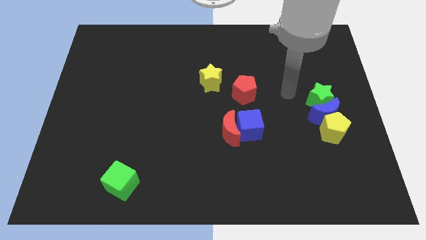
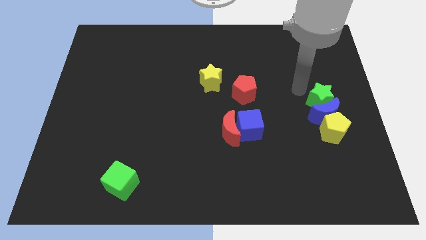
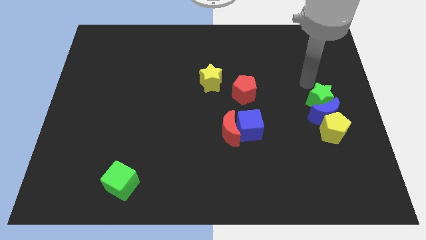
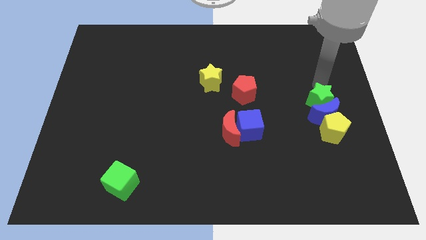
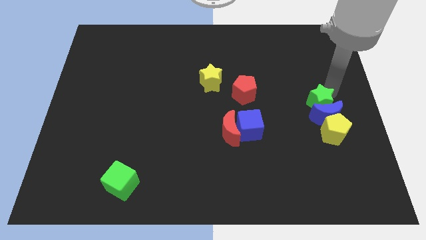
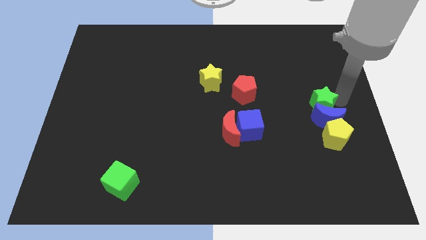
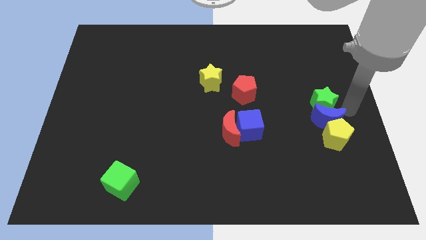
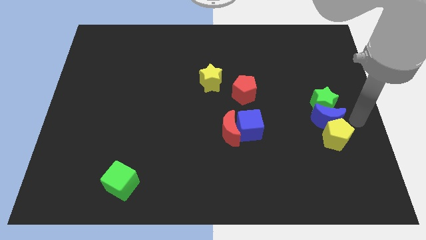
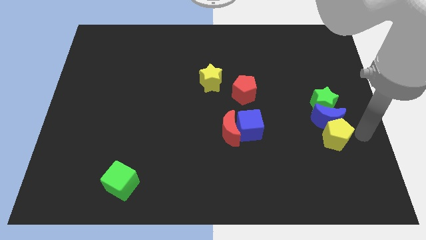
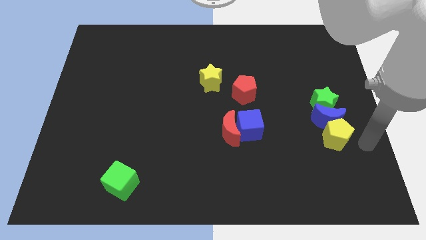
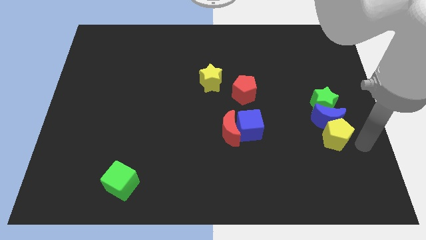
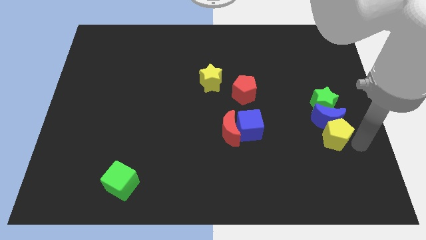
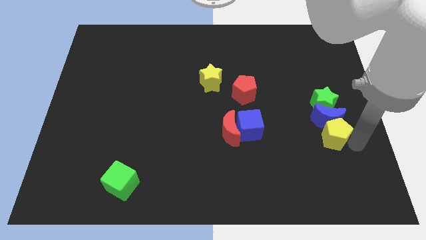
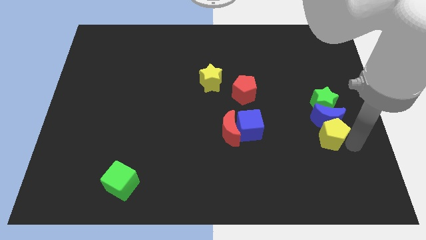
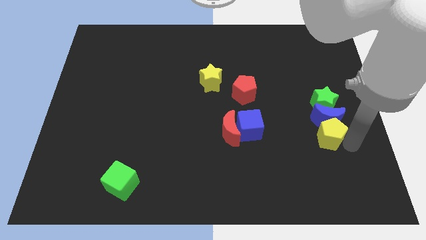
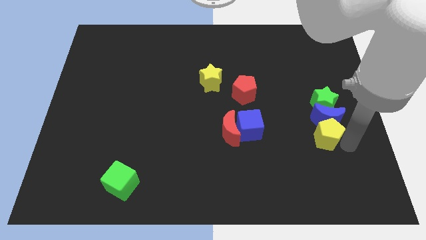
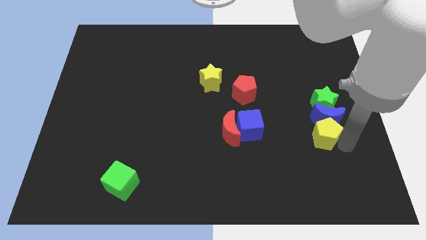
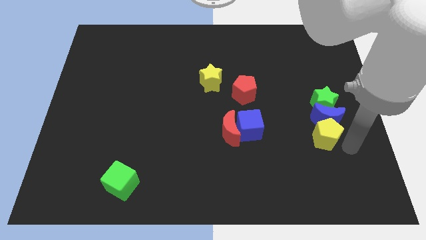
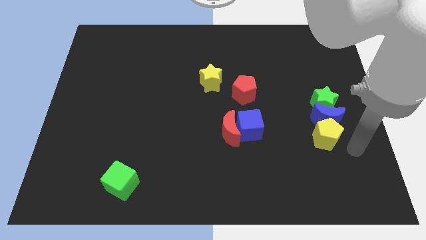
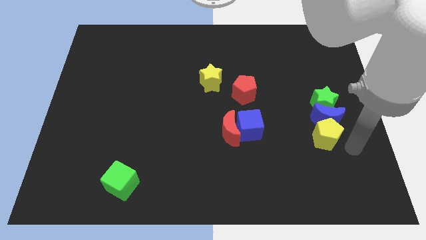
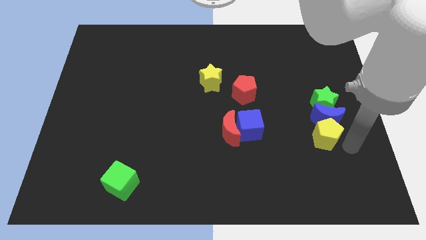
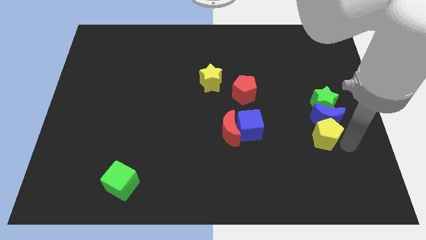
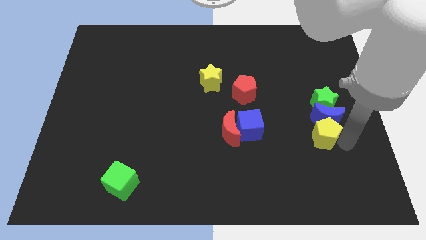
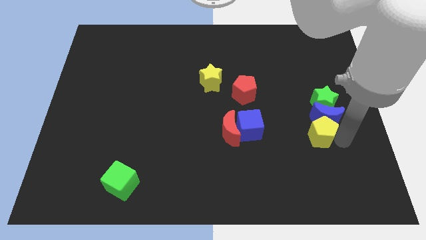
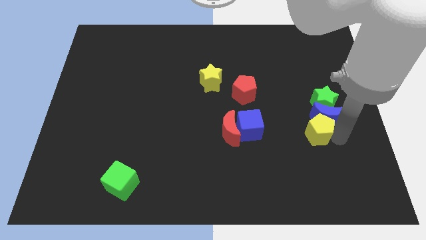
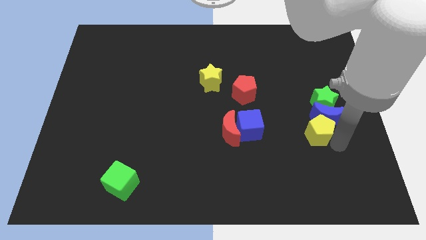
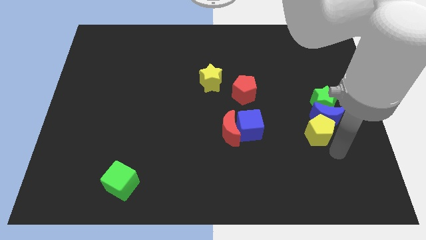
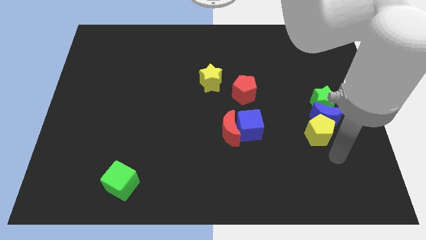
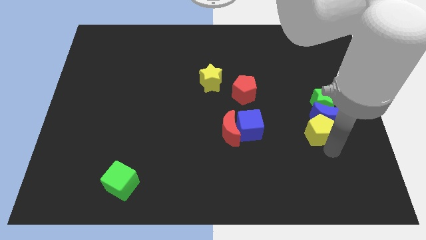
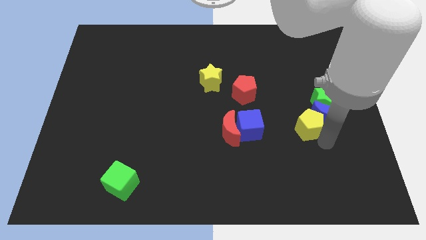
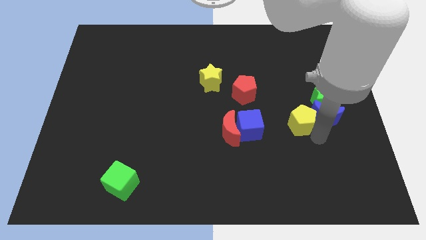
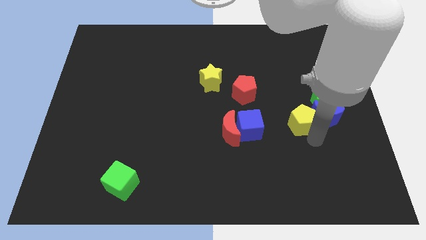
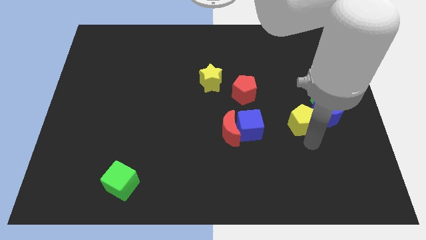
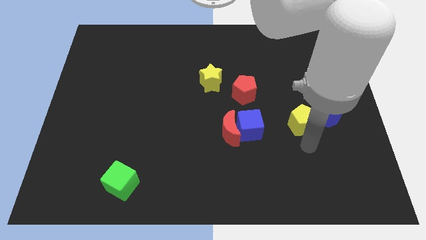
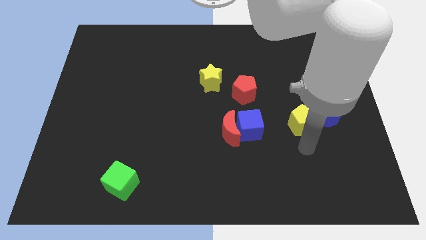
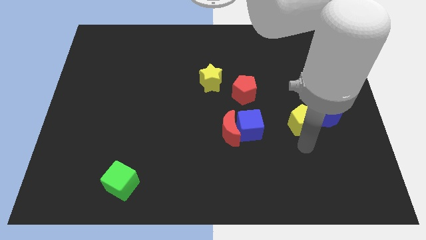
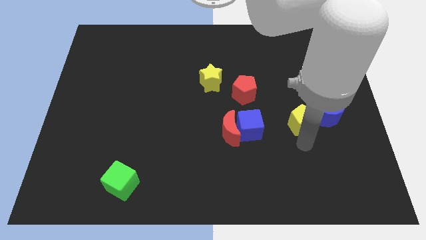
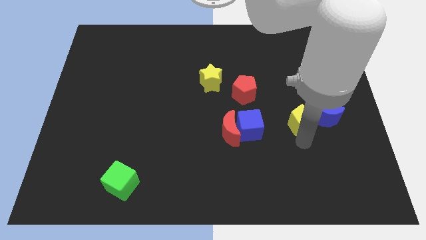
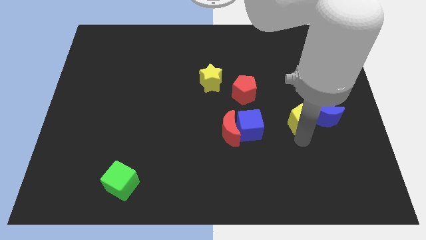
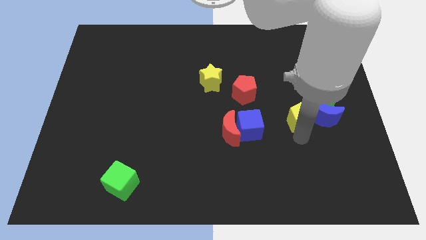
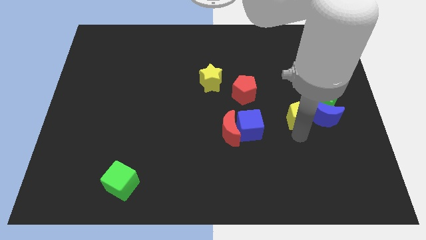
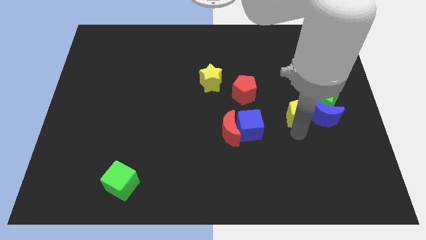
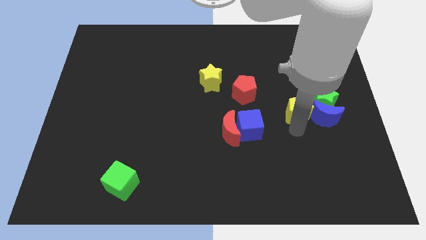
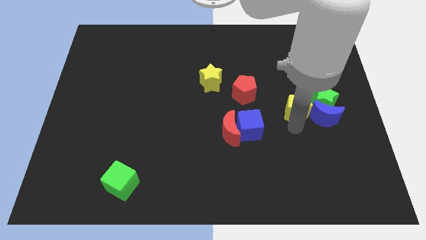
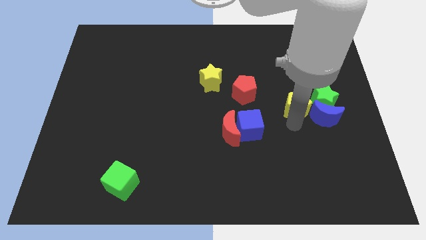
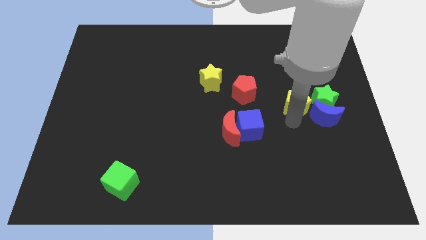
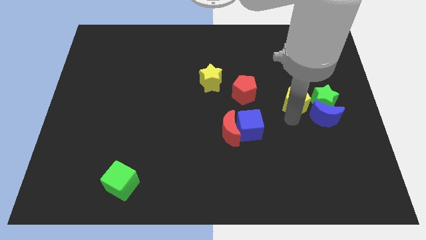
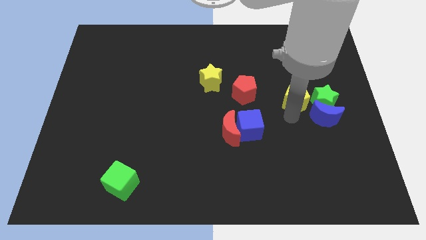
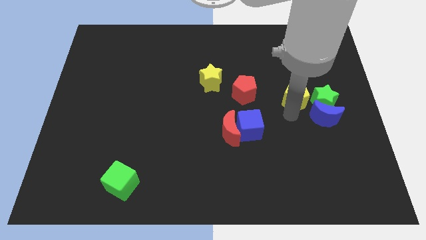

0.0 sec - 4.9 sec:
move the yellow pentagon up a bit

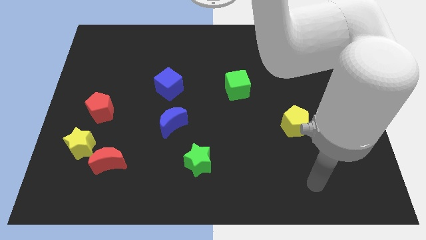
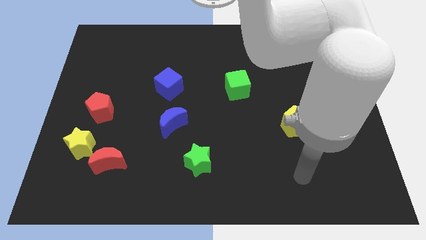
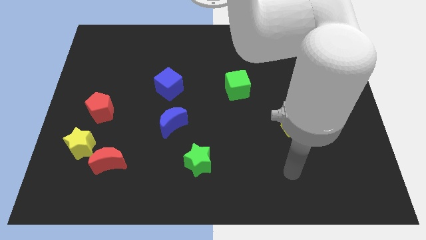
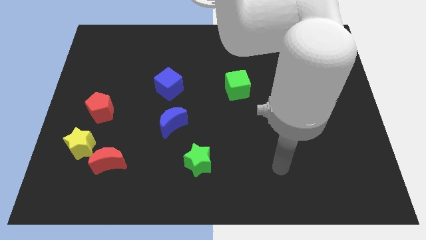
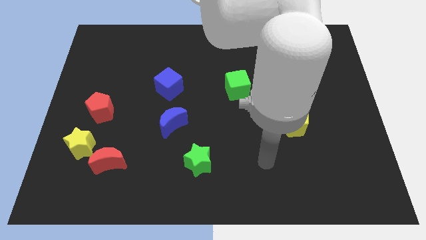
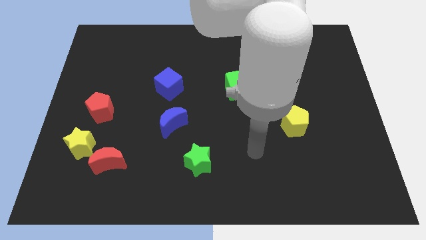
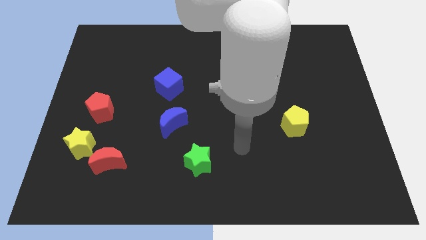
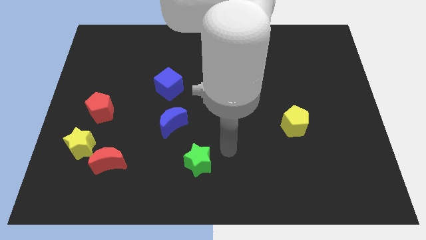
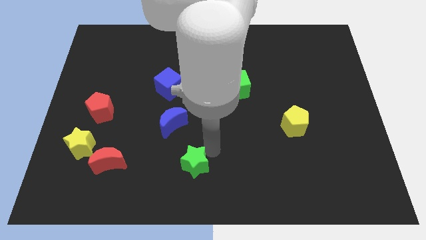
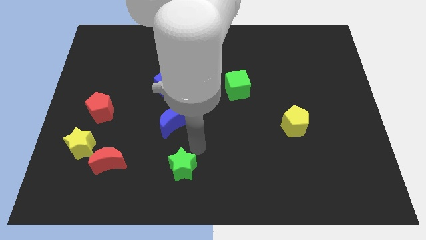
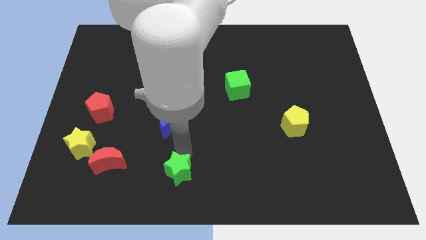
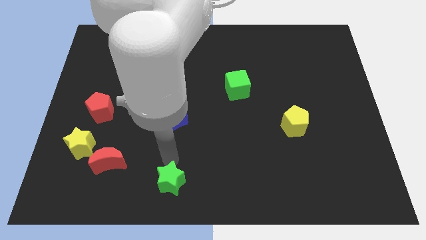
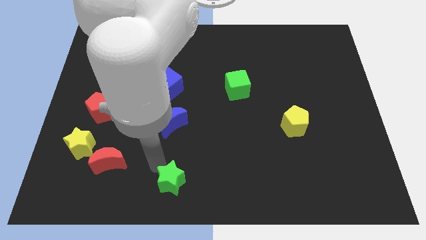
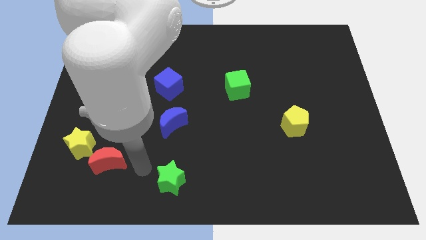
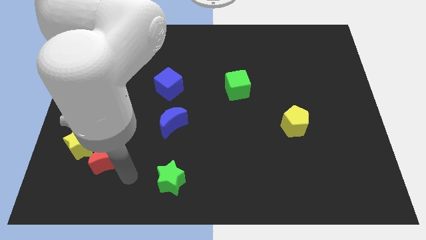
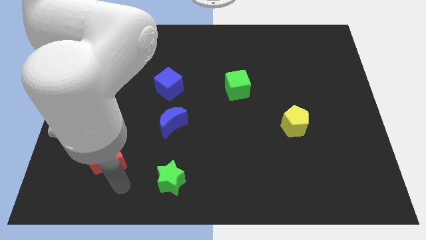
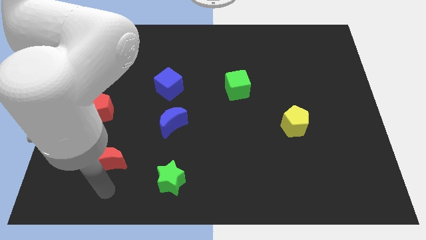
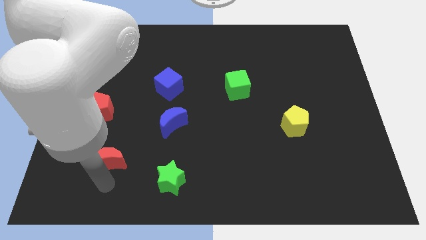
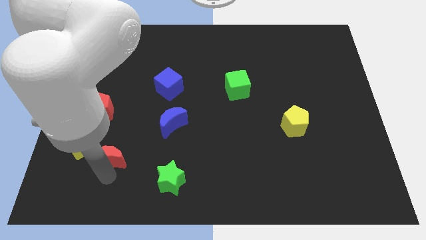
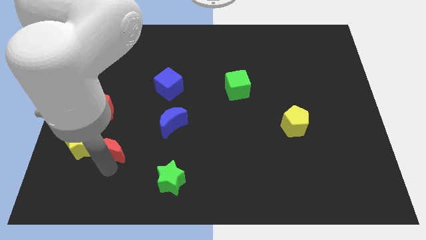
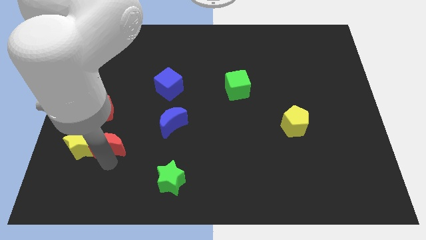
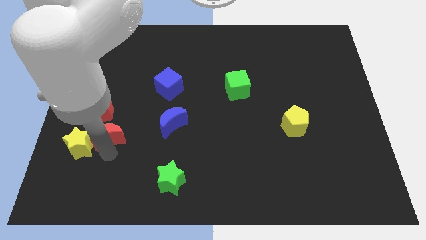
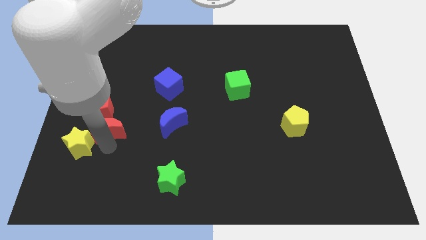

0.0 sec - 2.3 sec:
slightly move the red moon up

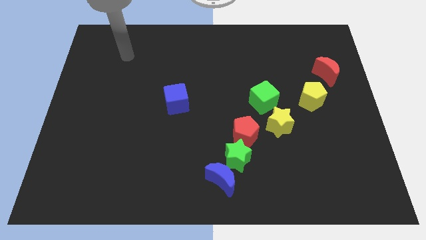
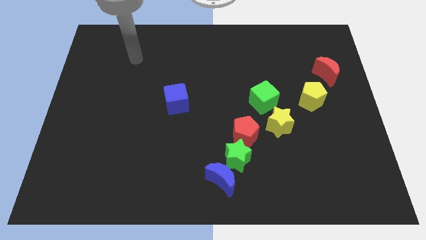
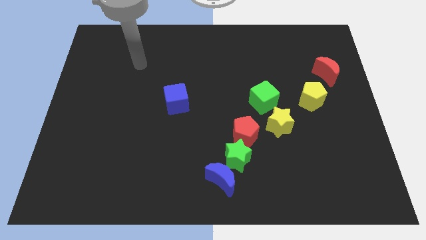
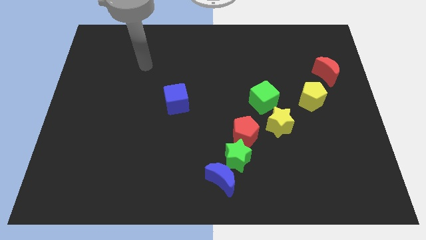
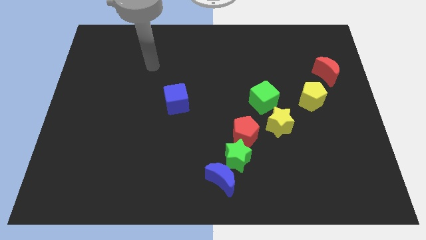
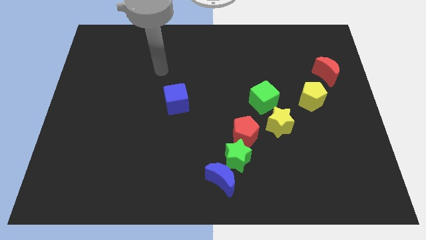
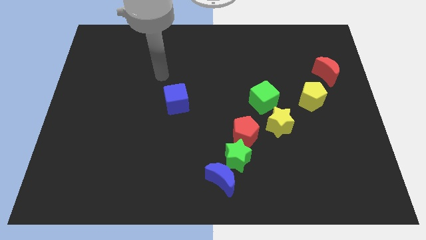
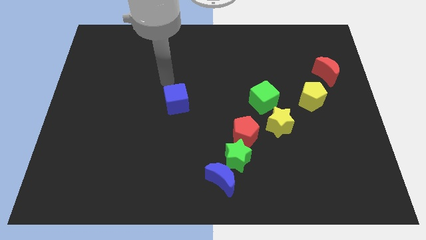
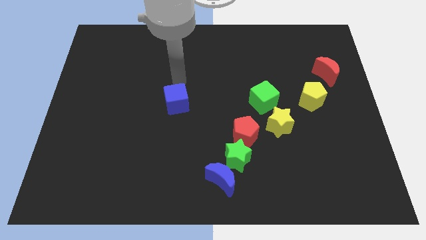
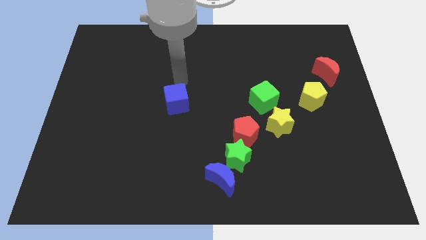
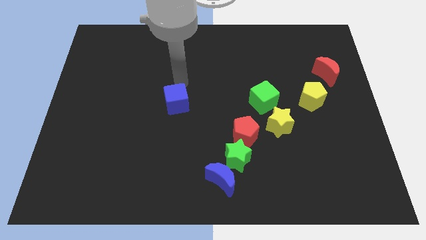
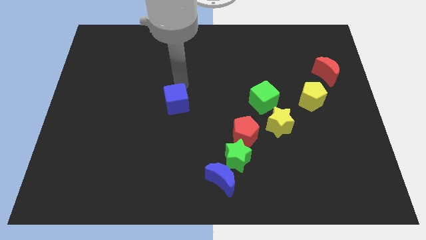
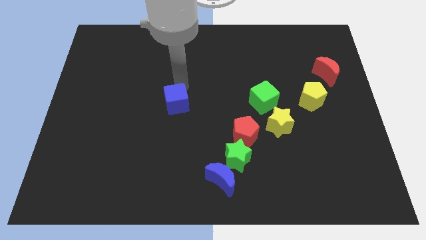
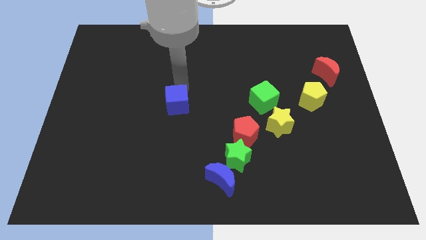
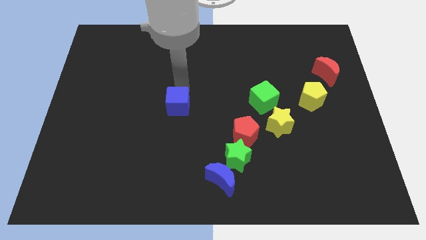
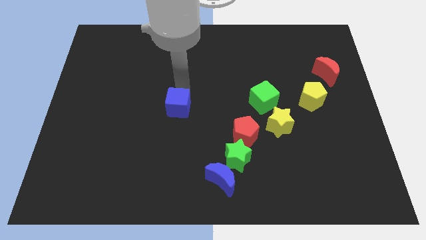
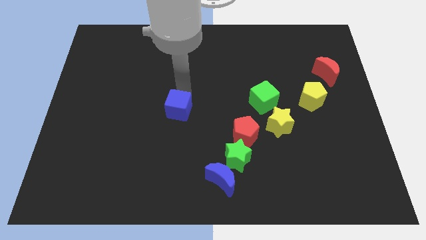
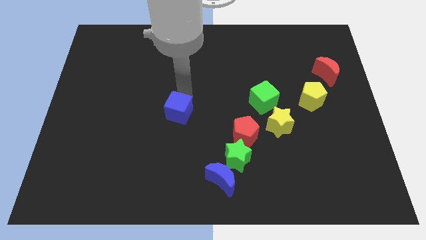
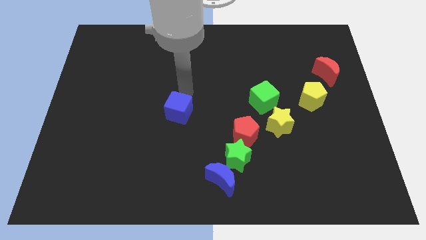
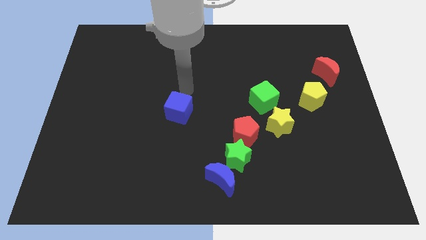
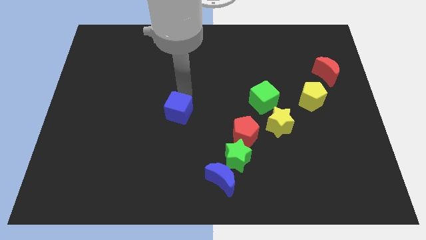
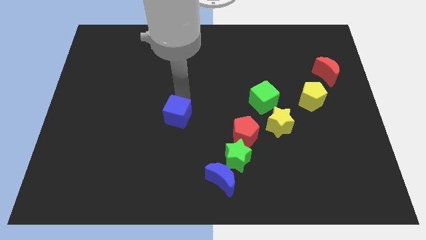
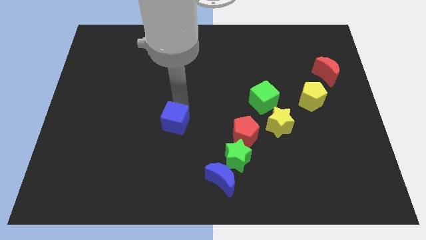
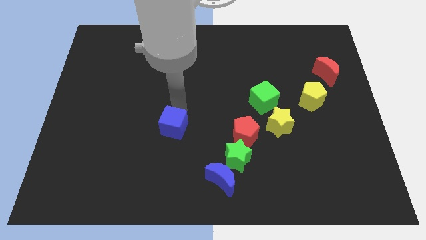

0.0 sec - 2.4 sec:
slightly move the blue cube downwards
